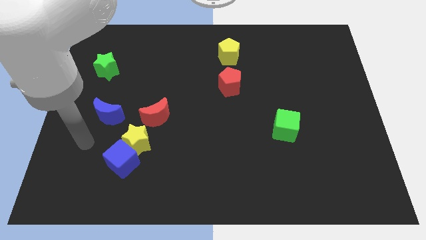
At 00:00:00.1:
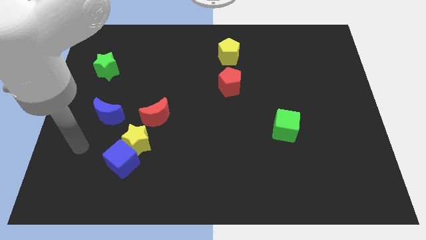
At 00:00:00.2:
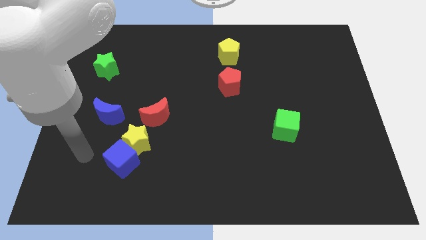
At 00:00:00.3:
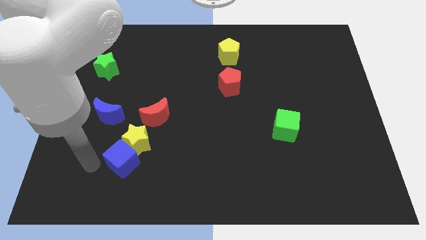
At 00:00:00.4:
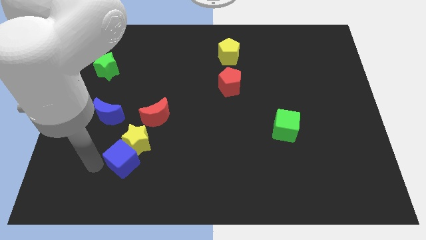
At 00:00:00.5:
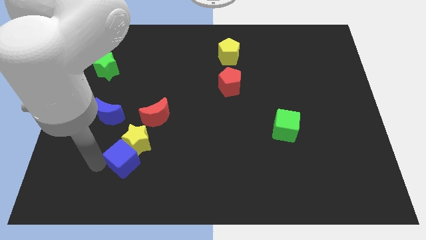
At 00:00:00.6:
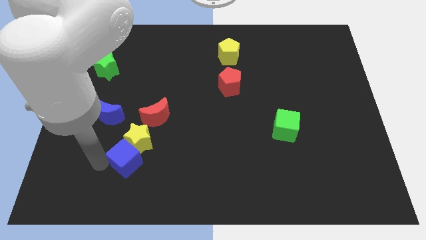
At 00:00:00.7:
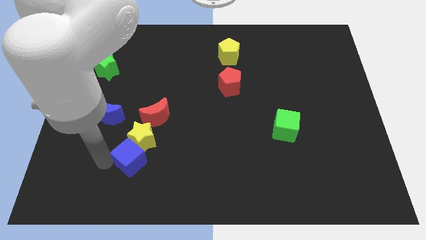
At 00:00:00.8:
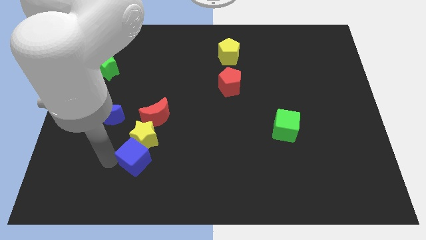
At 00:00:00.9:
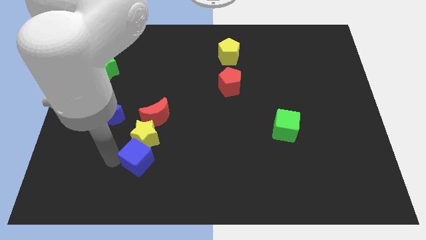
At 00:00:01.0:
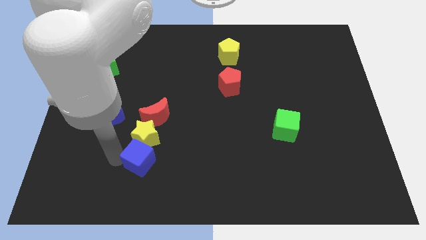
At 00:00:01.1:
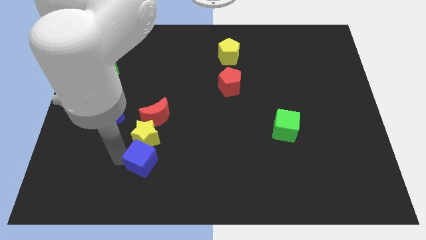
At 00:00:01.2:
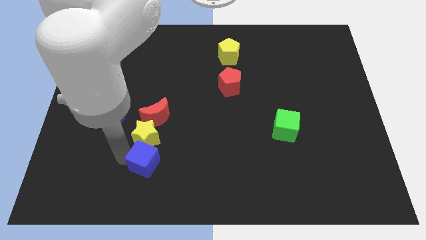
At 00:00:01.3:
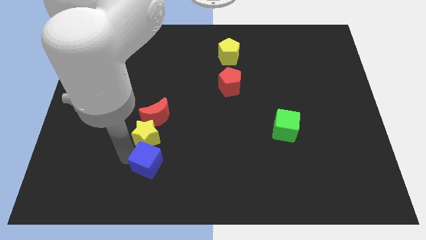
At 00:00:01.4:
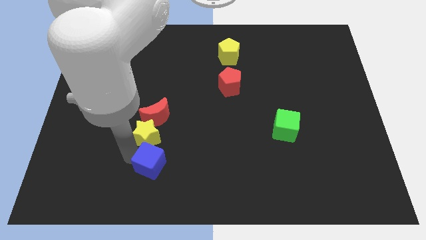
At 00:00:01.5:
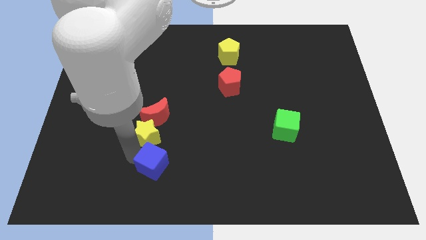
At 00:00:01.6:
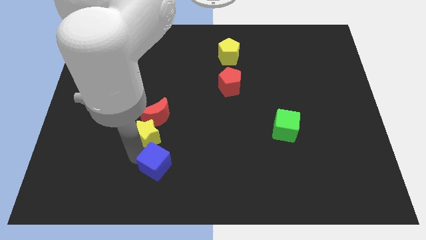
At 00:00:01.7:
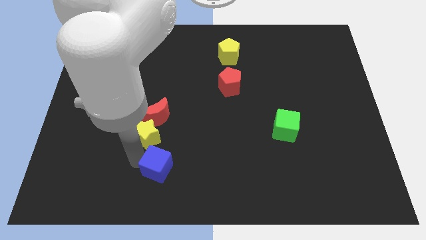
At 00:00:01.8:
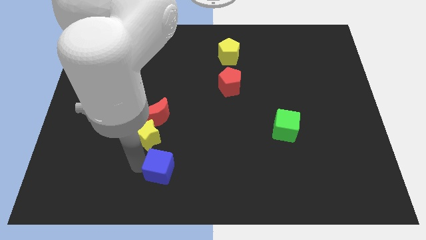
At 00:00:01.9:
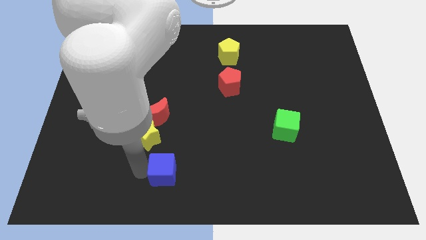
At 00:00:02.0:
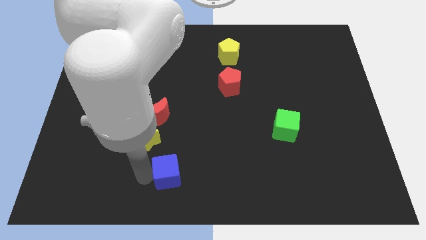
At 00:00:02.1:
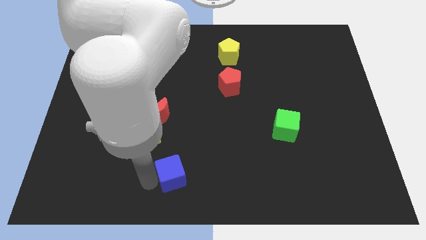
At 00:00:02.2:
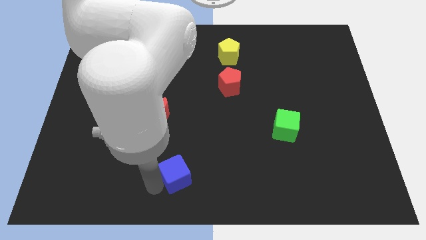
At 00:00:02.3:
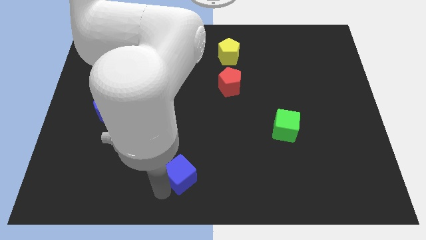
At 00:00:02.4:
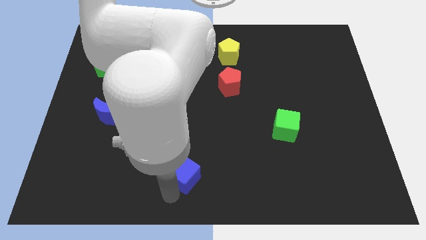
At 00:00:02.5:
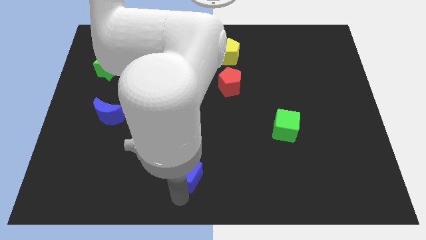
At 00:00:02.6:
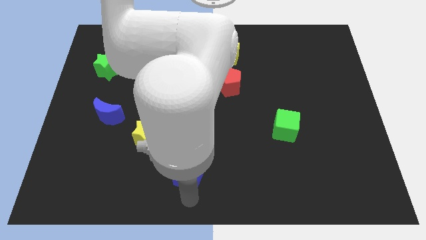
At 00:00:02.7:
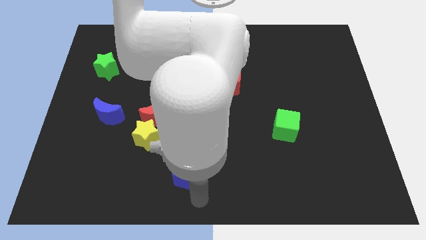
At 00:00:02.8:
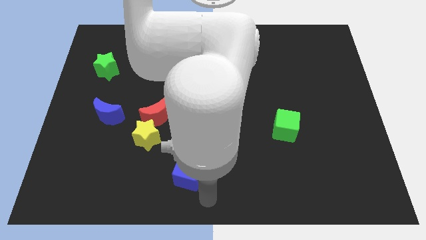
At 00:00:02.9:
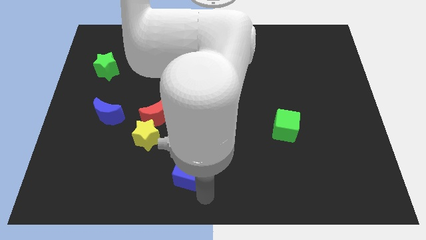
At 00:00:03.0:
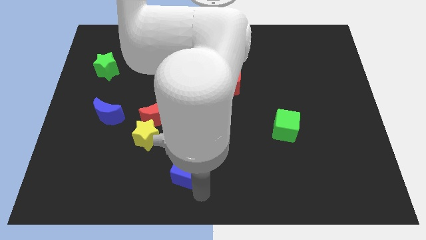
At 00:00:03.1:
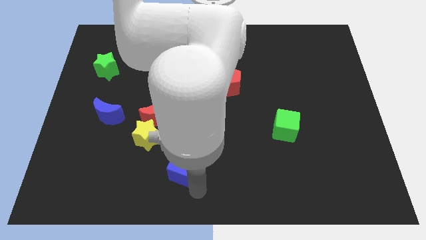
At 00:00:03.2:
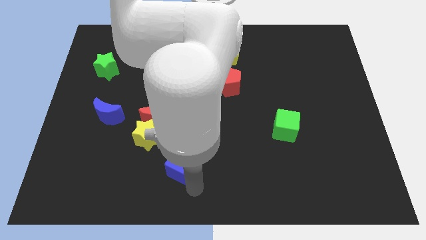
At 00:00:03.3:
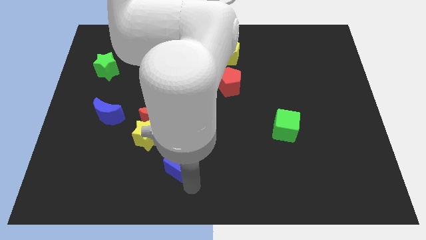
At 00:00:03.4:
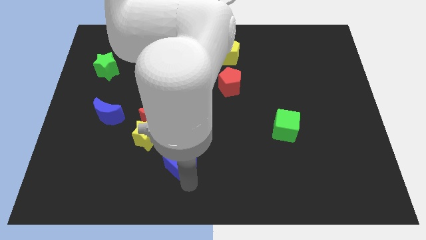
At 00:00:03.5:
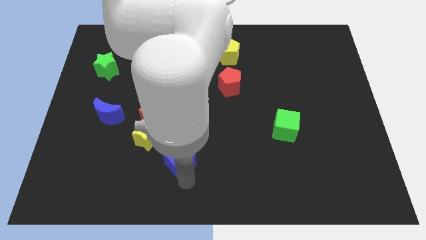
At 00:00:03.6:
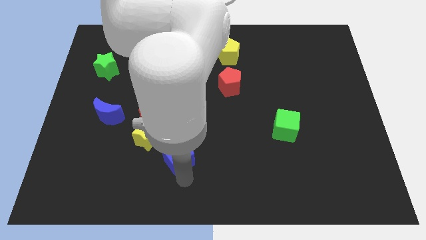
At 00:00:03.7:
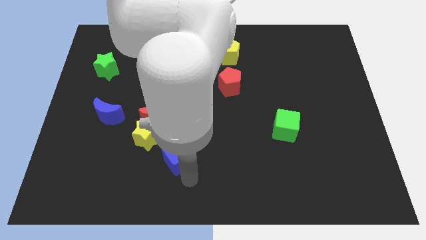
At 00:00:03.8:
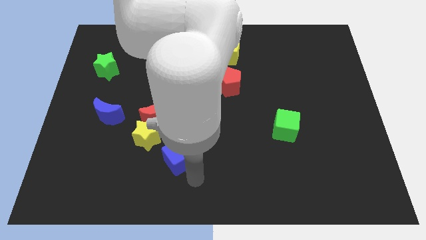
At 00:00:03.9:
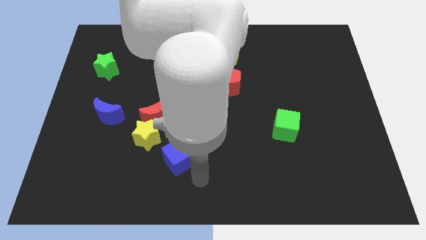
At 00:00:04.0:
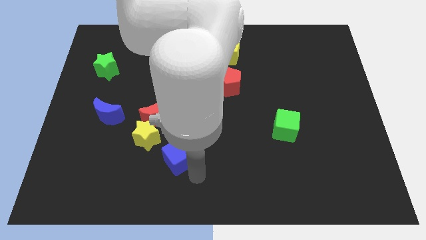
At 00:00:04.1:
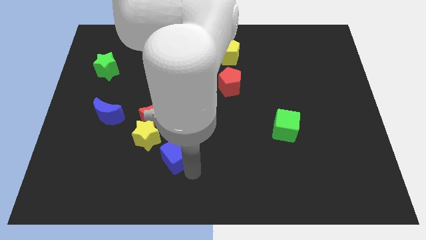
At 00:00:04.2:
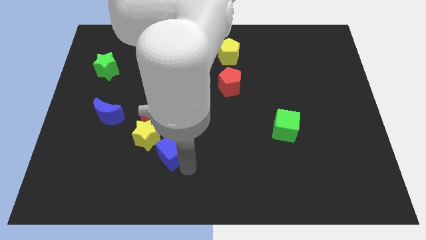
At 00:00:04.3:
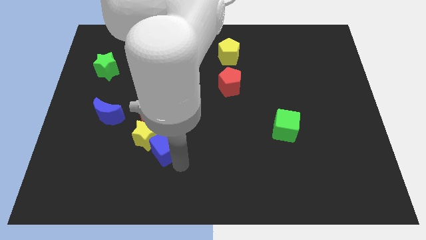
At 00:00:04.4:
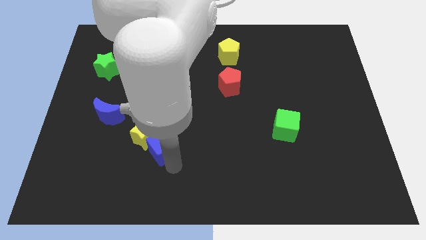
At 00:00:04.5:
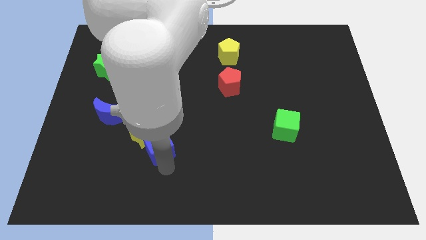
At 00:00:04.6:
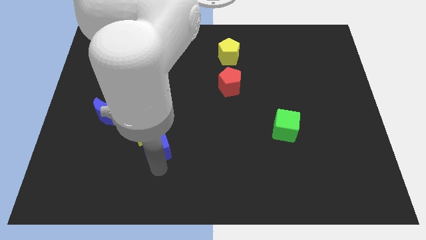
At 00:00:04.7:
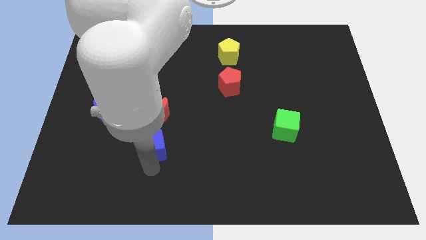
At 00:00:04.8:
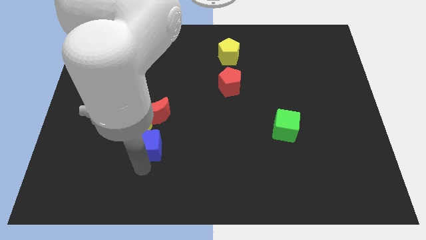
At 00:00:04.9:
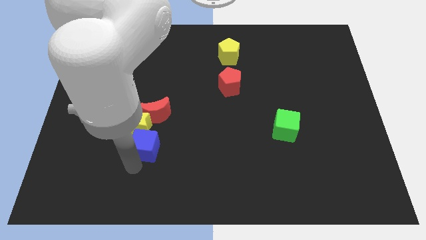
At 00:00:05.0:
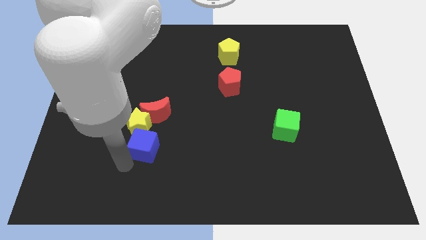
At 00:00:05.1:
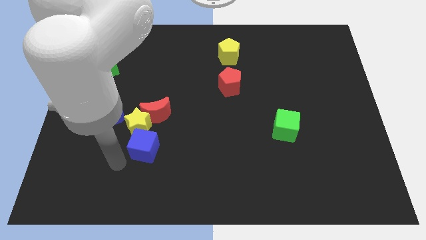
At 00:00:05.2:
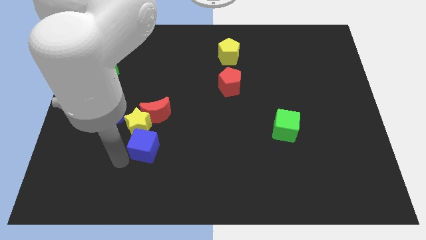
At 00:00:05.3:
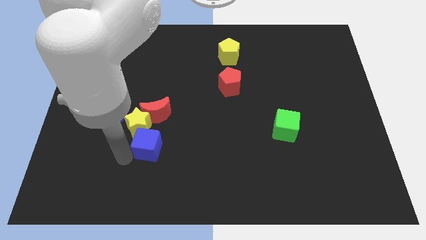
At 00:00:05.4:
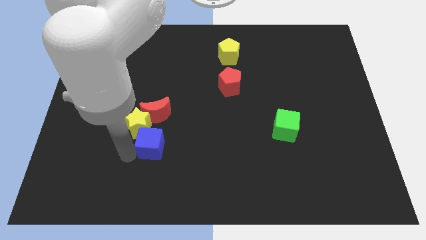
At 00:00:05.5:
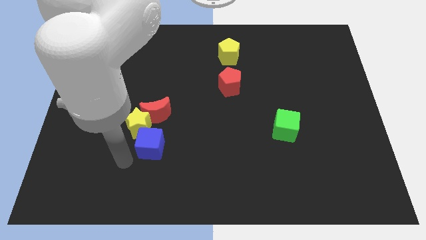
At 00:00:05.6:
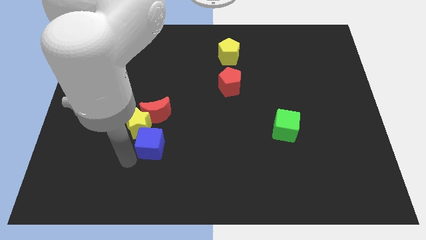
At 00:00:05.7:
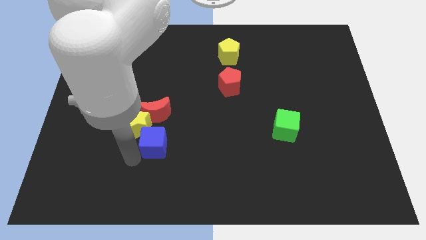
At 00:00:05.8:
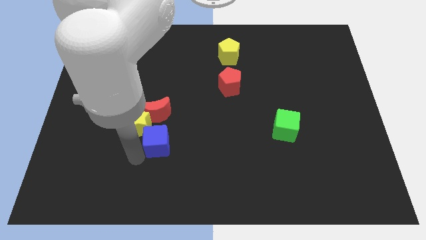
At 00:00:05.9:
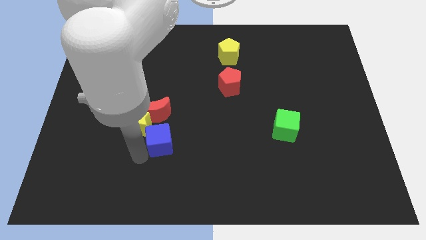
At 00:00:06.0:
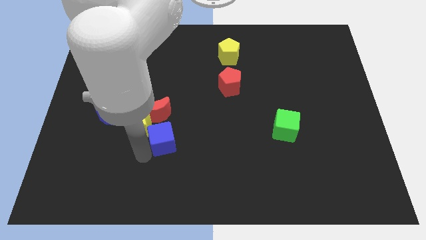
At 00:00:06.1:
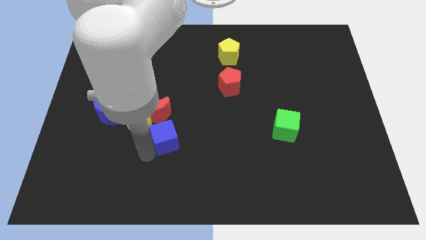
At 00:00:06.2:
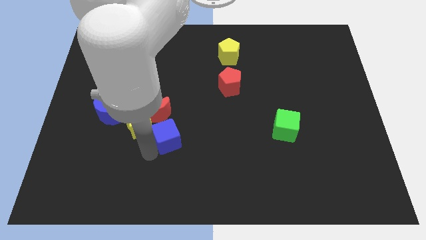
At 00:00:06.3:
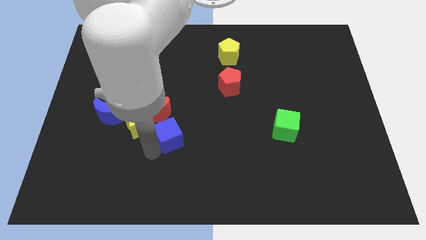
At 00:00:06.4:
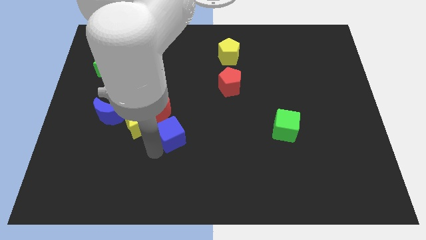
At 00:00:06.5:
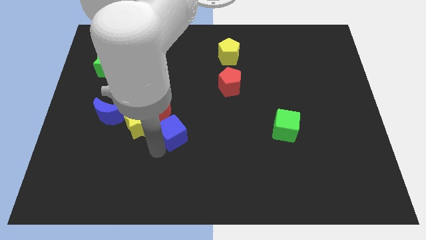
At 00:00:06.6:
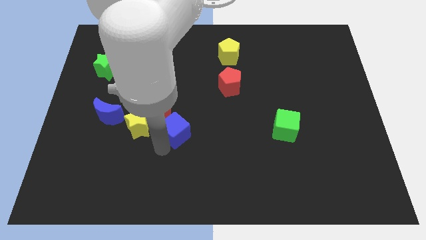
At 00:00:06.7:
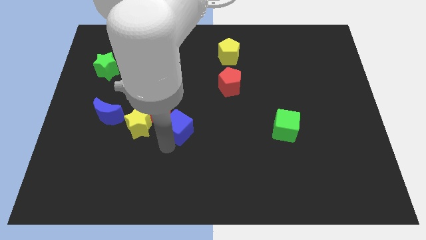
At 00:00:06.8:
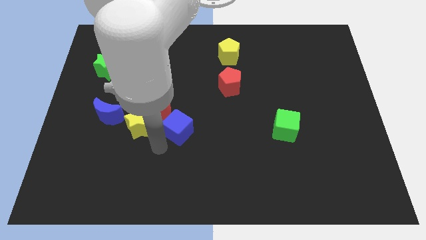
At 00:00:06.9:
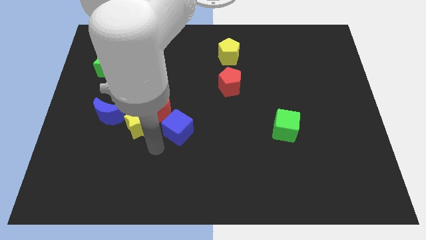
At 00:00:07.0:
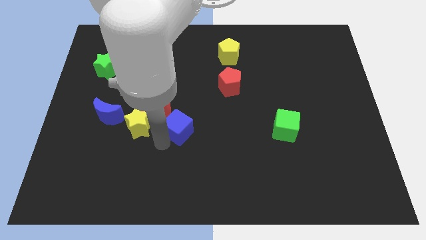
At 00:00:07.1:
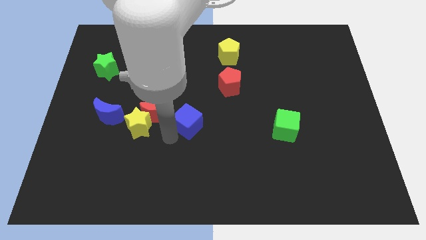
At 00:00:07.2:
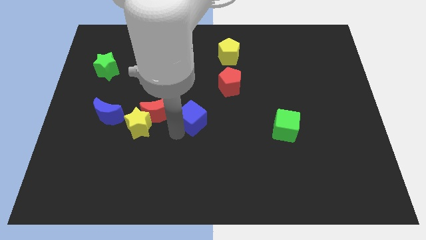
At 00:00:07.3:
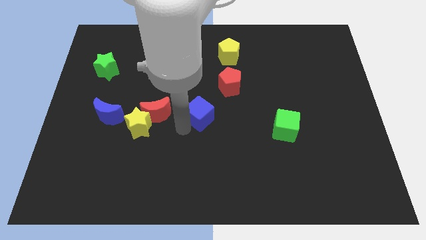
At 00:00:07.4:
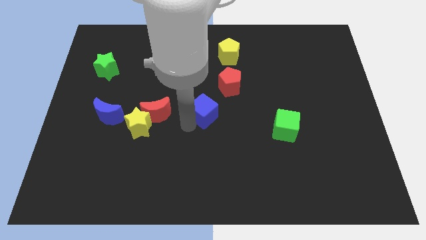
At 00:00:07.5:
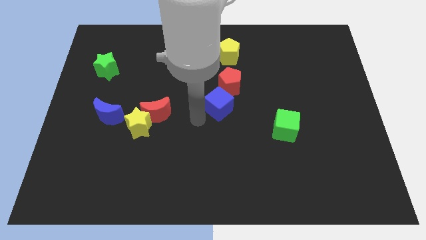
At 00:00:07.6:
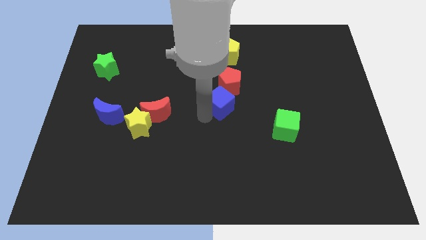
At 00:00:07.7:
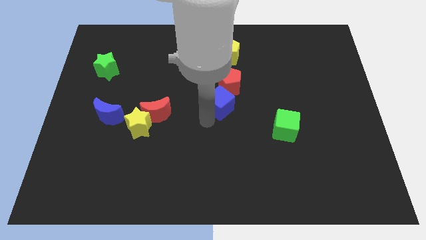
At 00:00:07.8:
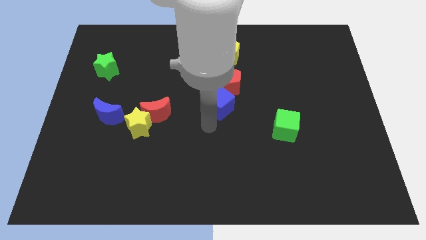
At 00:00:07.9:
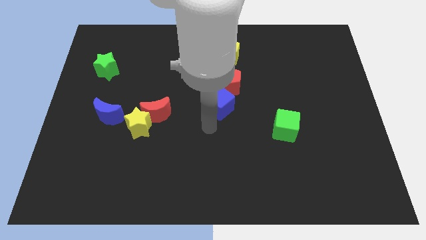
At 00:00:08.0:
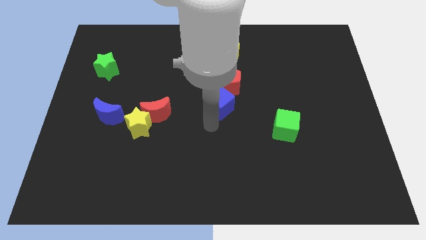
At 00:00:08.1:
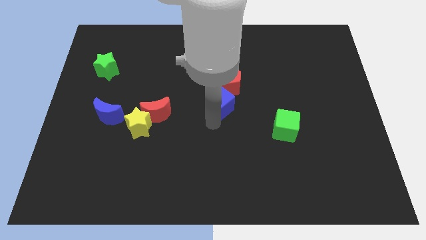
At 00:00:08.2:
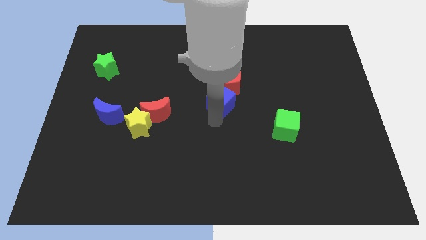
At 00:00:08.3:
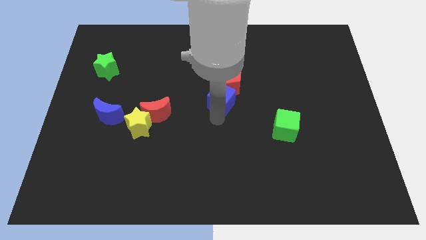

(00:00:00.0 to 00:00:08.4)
slide the blue cube towards the red pentagon
